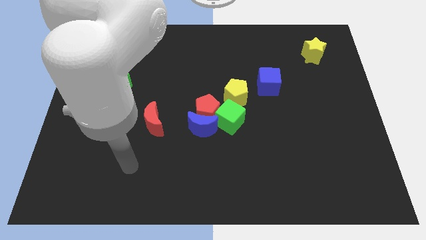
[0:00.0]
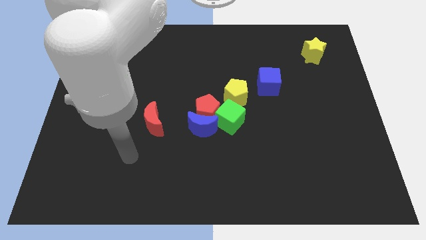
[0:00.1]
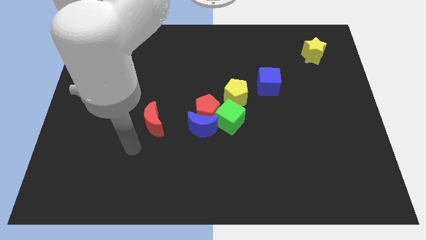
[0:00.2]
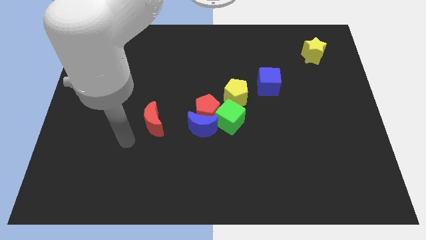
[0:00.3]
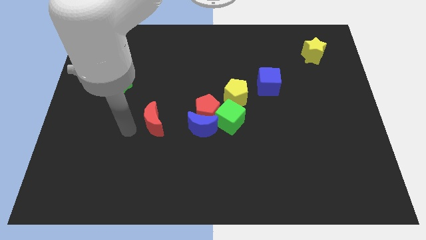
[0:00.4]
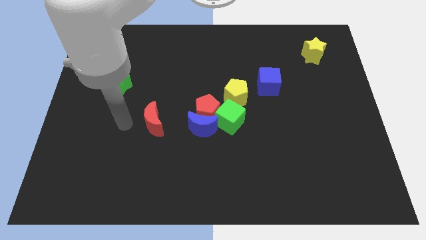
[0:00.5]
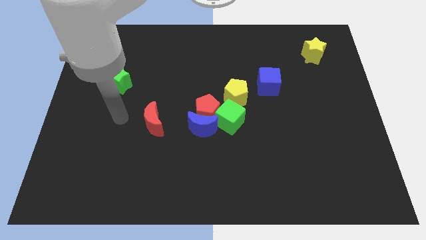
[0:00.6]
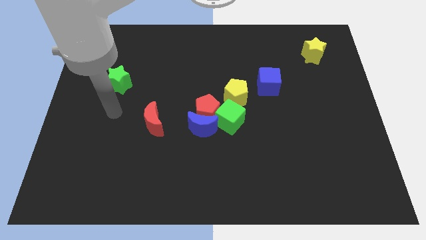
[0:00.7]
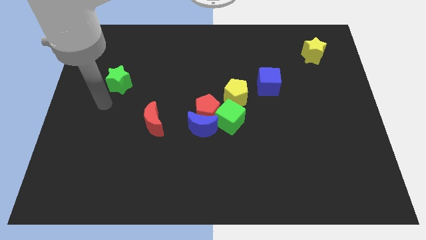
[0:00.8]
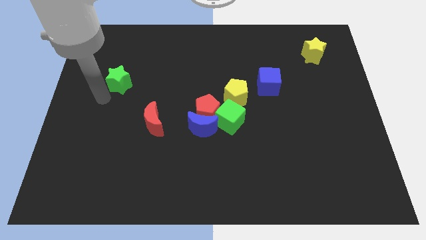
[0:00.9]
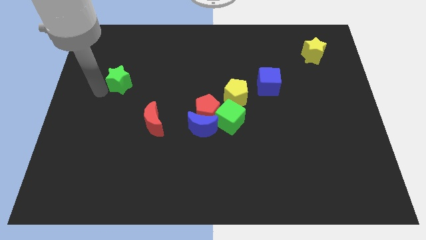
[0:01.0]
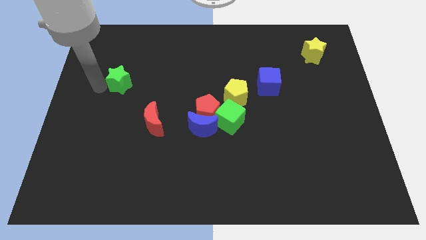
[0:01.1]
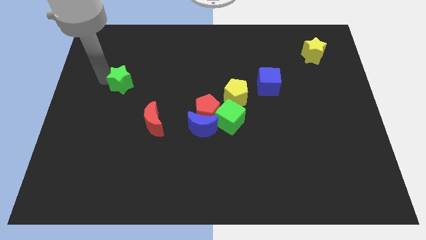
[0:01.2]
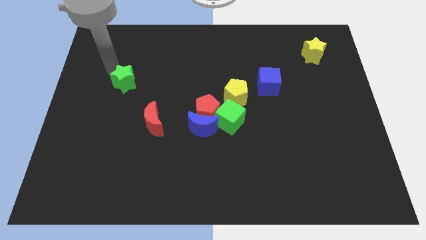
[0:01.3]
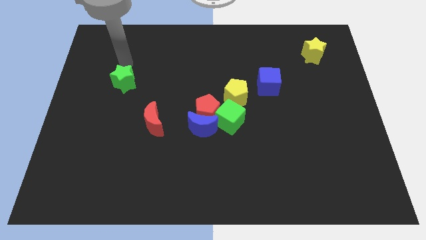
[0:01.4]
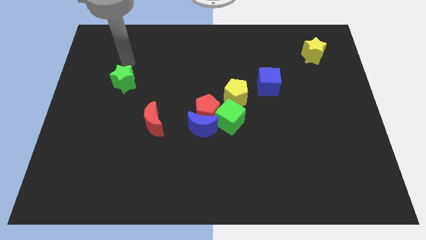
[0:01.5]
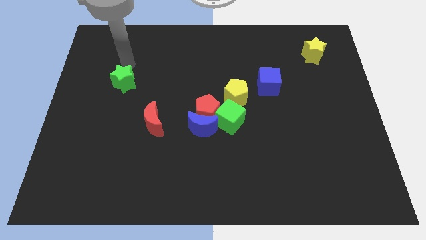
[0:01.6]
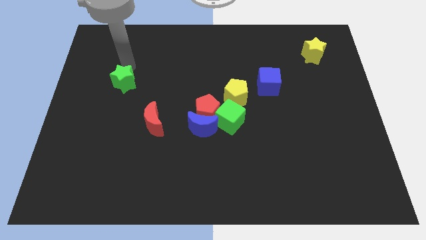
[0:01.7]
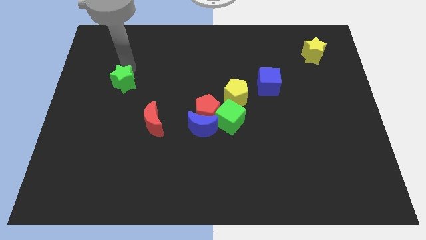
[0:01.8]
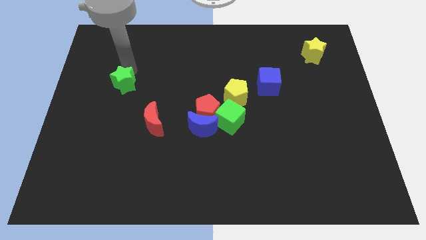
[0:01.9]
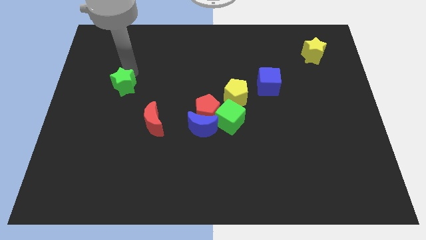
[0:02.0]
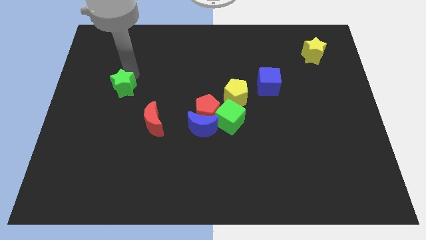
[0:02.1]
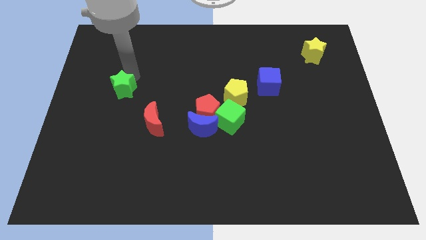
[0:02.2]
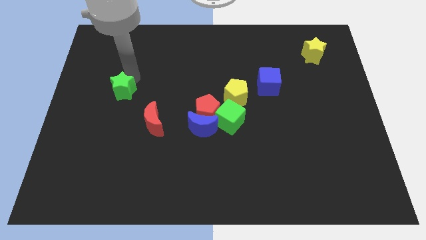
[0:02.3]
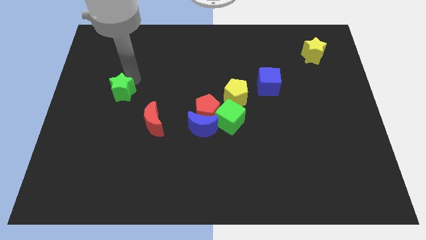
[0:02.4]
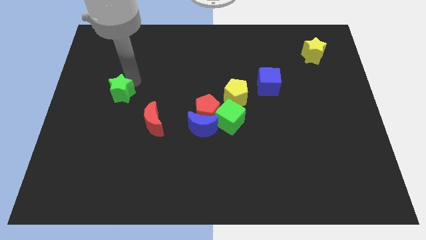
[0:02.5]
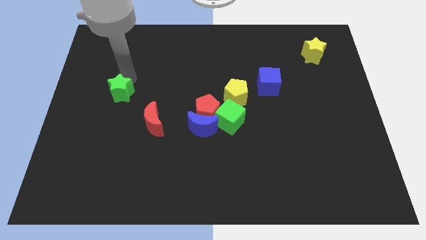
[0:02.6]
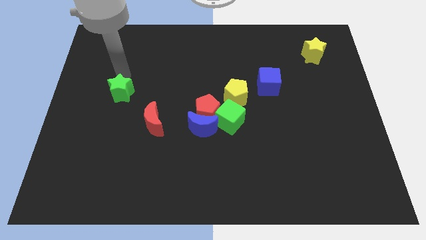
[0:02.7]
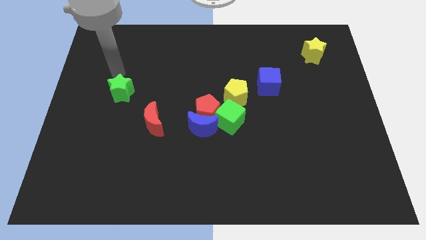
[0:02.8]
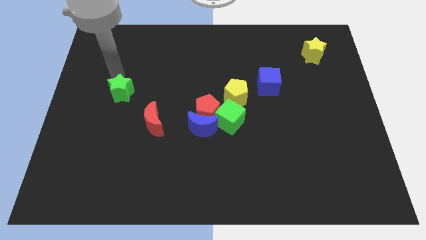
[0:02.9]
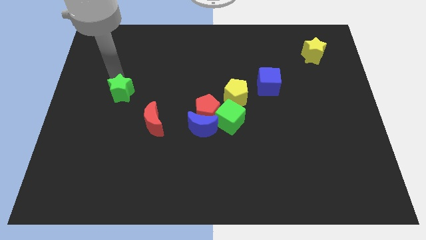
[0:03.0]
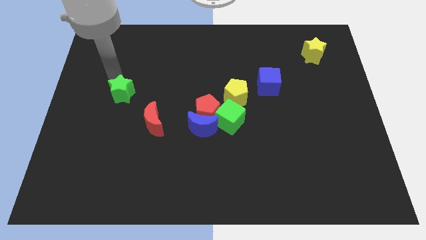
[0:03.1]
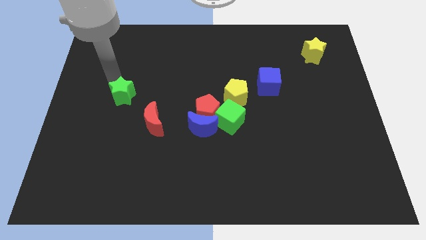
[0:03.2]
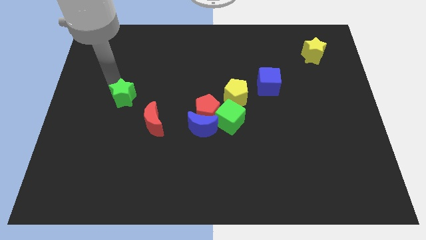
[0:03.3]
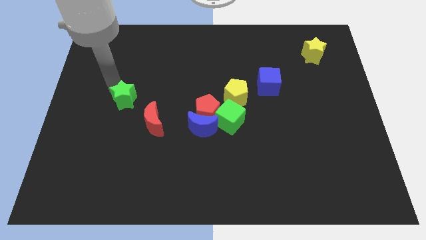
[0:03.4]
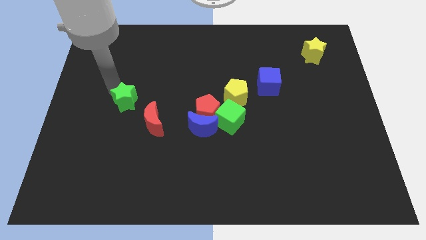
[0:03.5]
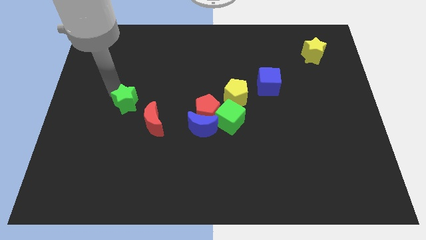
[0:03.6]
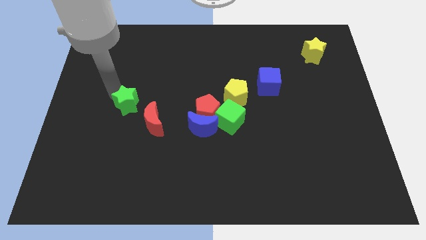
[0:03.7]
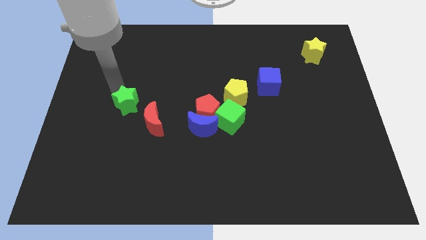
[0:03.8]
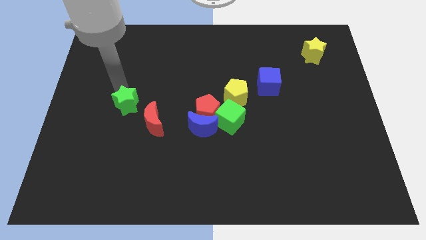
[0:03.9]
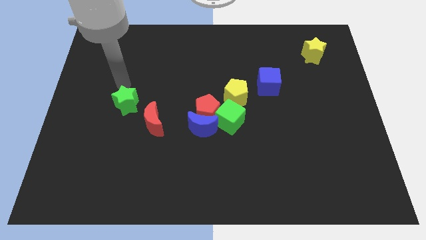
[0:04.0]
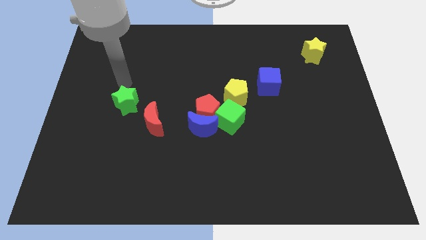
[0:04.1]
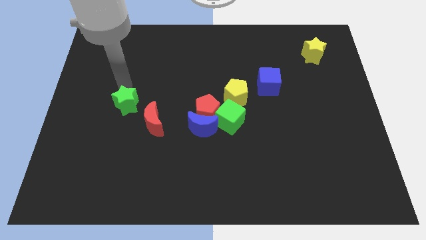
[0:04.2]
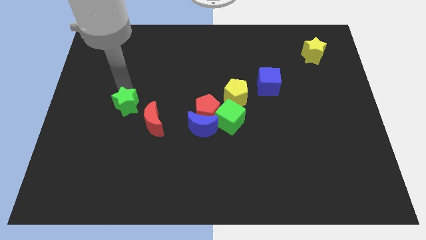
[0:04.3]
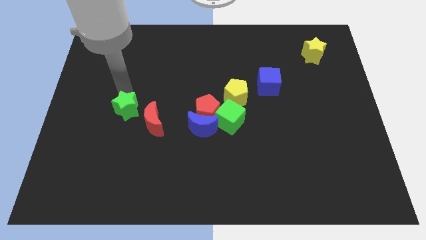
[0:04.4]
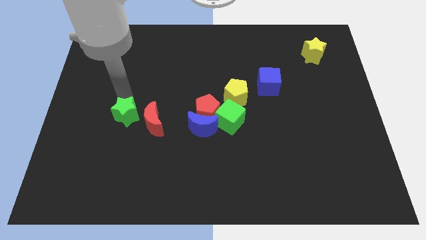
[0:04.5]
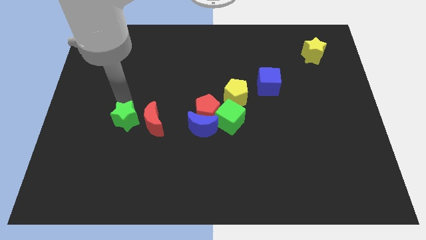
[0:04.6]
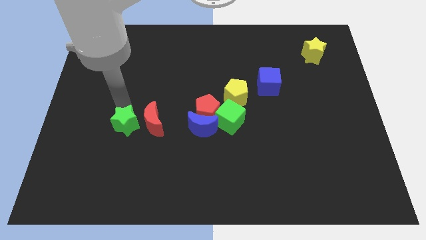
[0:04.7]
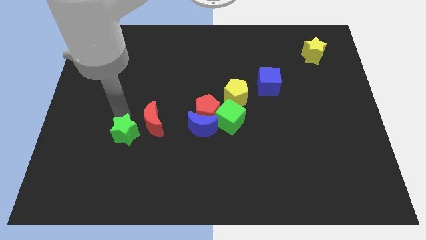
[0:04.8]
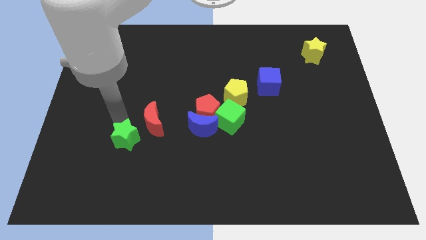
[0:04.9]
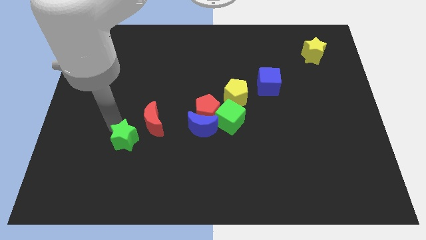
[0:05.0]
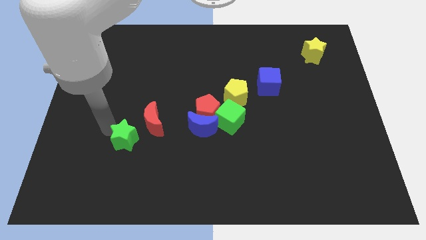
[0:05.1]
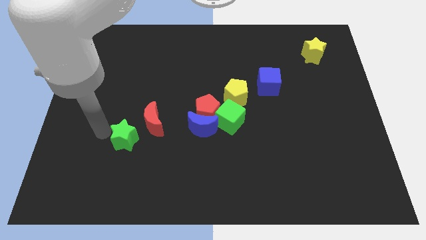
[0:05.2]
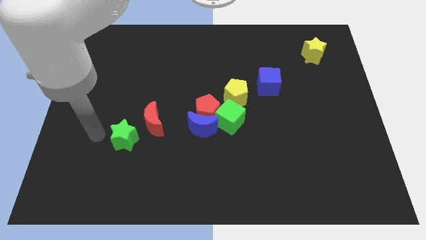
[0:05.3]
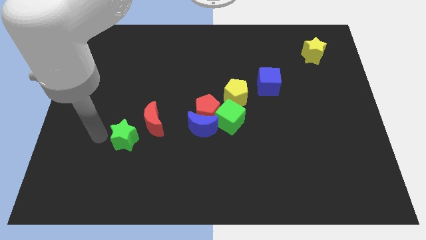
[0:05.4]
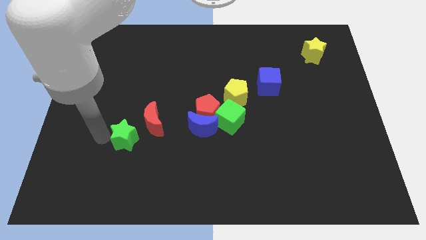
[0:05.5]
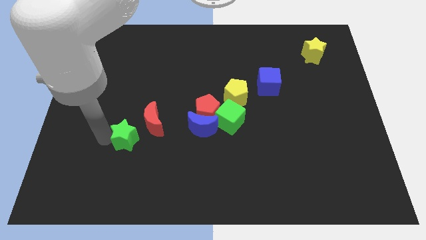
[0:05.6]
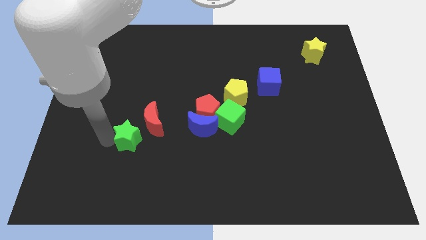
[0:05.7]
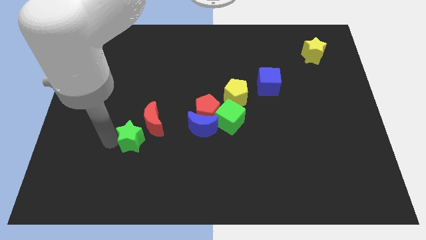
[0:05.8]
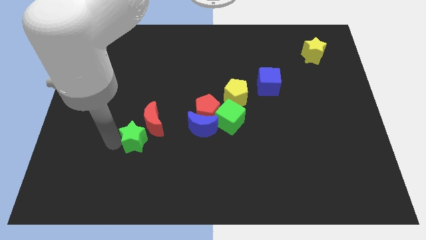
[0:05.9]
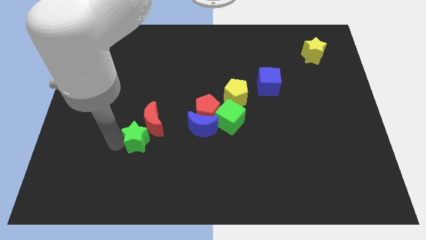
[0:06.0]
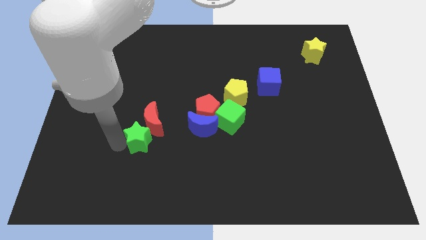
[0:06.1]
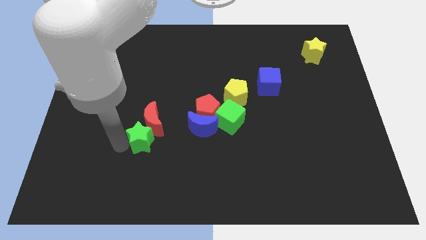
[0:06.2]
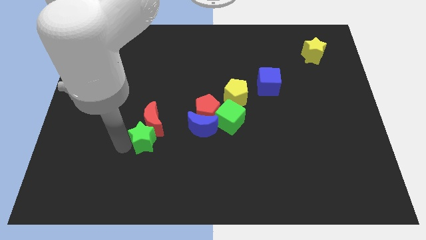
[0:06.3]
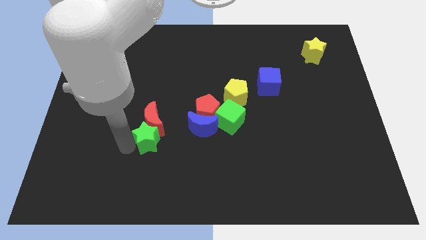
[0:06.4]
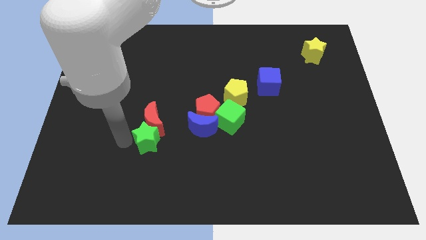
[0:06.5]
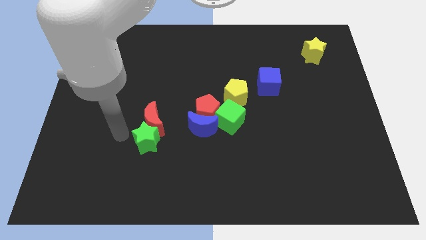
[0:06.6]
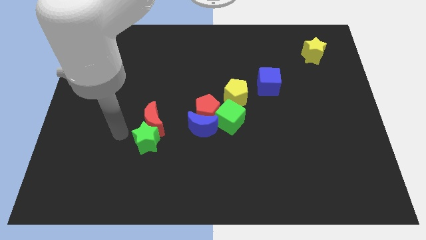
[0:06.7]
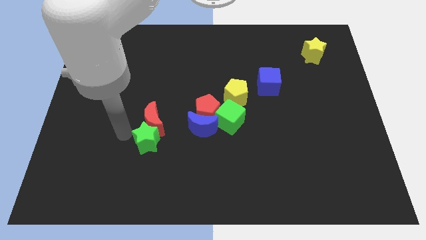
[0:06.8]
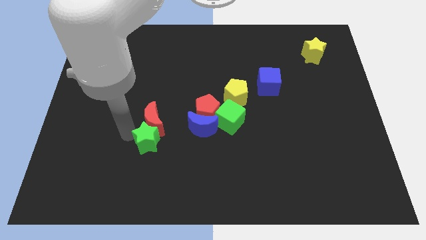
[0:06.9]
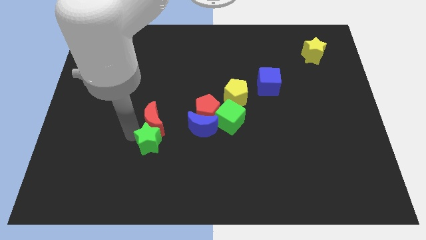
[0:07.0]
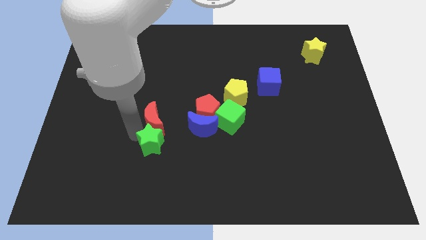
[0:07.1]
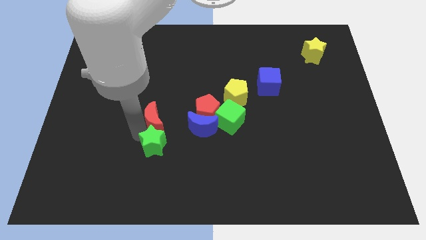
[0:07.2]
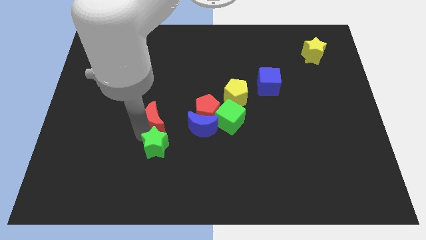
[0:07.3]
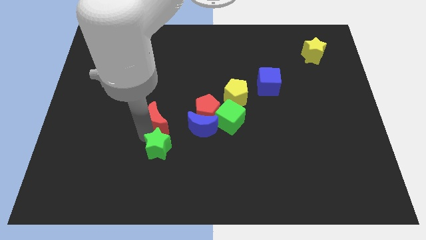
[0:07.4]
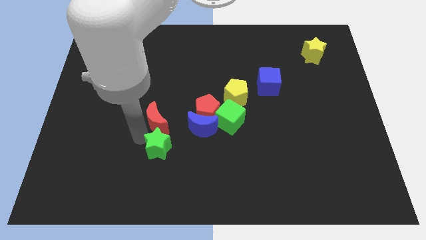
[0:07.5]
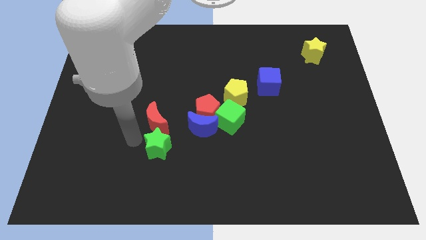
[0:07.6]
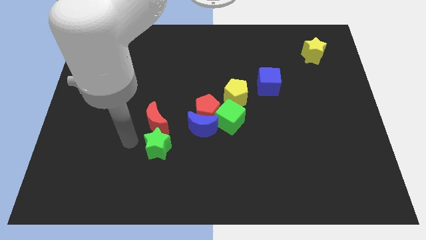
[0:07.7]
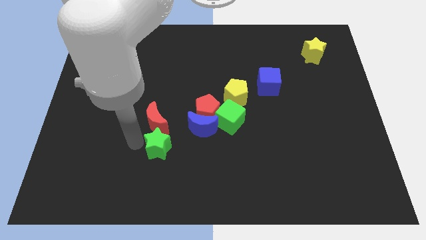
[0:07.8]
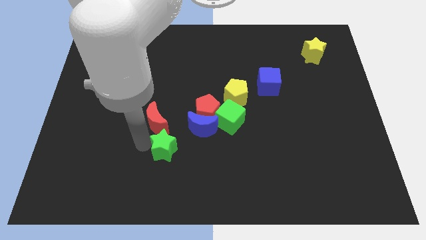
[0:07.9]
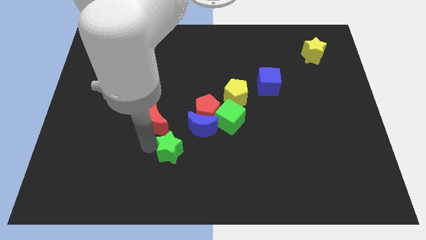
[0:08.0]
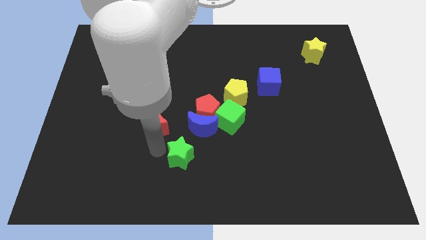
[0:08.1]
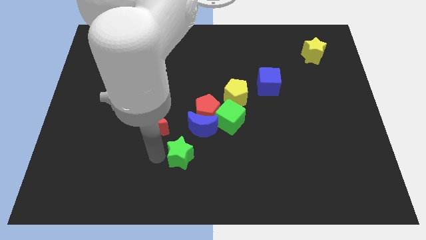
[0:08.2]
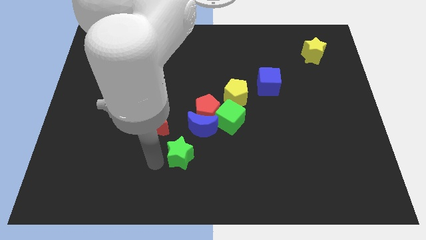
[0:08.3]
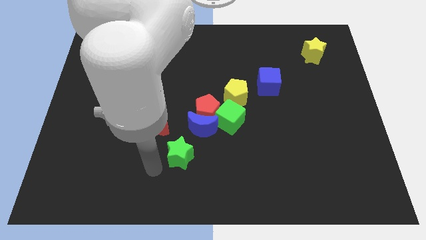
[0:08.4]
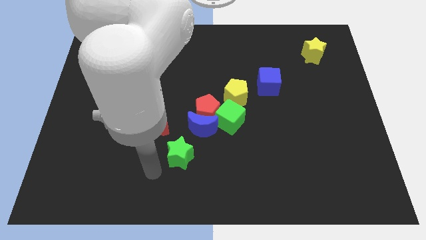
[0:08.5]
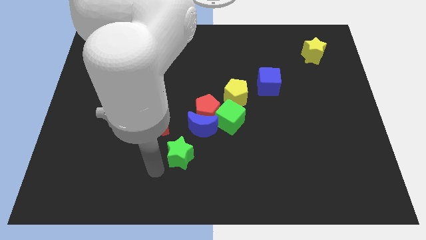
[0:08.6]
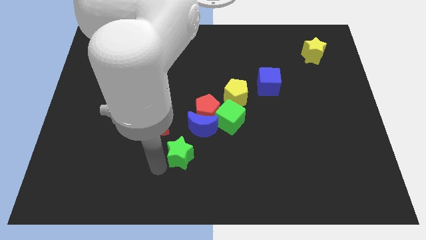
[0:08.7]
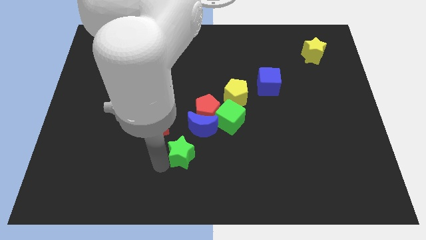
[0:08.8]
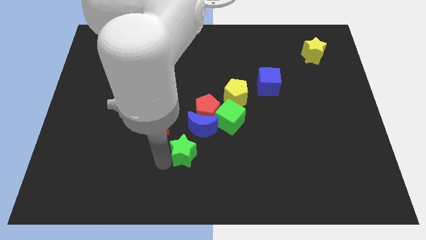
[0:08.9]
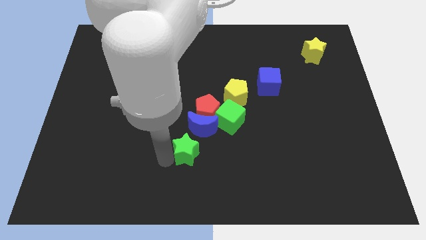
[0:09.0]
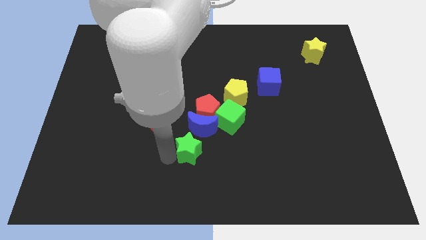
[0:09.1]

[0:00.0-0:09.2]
move the green star to the bottom left of the green cube
